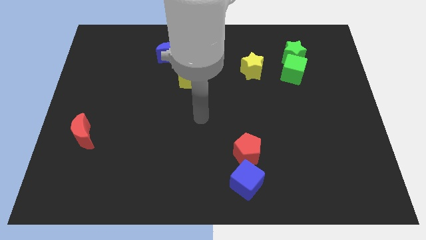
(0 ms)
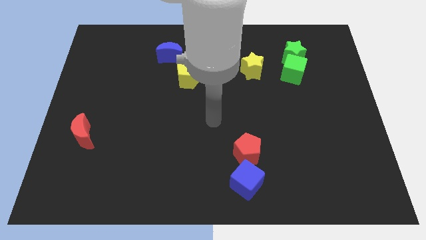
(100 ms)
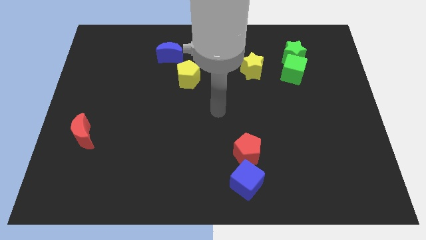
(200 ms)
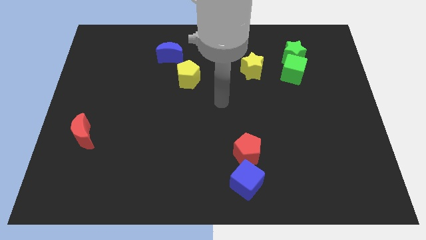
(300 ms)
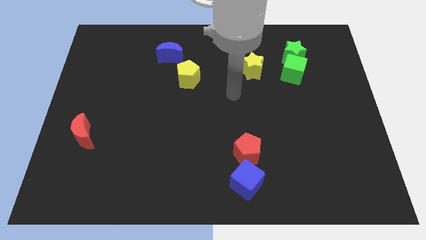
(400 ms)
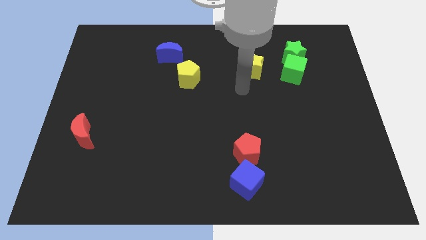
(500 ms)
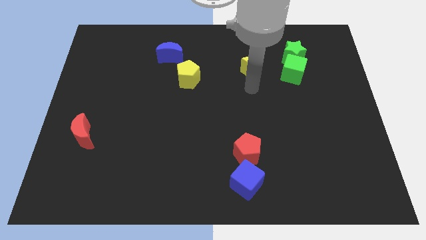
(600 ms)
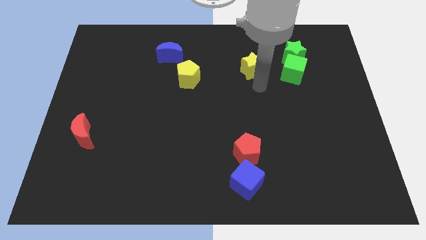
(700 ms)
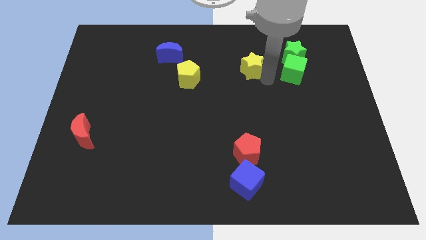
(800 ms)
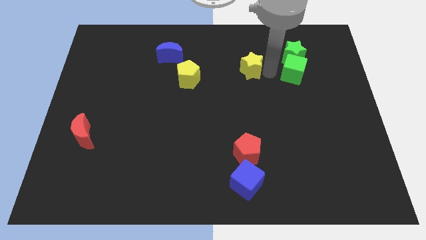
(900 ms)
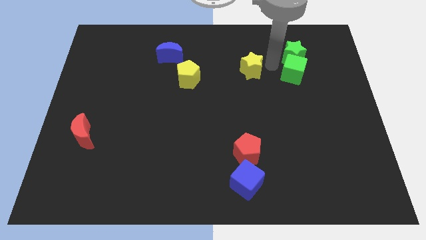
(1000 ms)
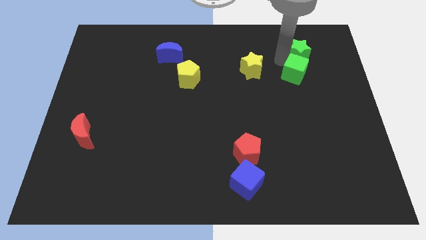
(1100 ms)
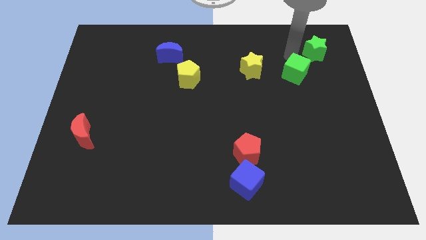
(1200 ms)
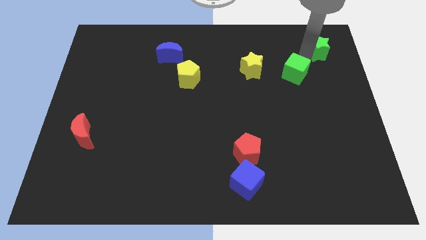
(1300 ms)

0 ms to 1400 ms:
separate the green cube from the green star

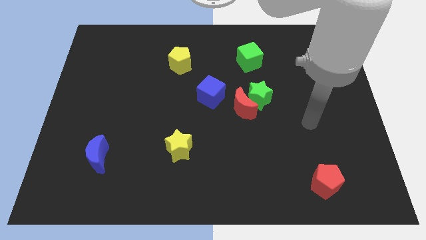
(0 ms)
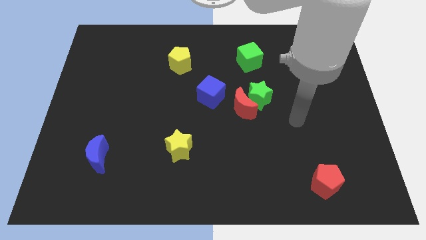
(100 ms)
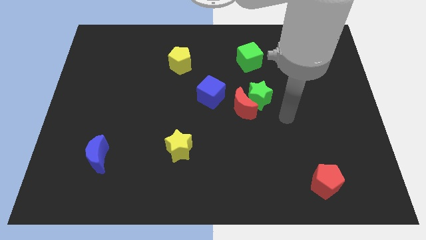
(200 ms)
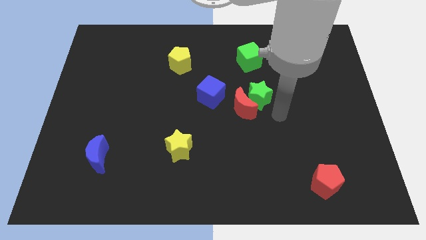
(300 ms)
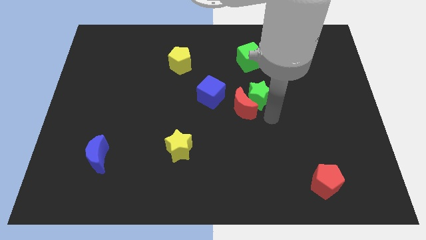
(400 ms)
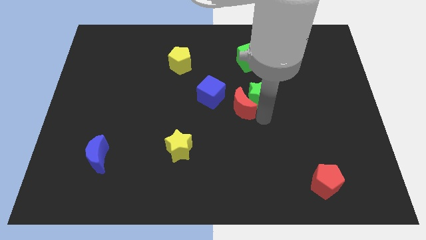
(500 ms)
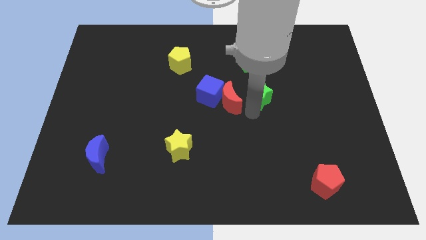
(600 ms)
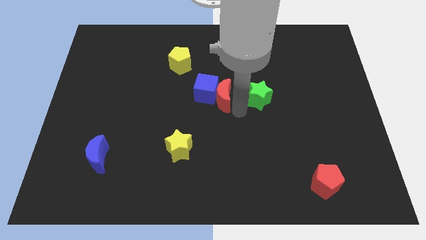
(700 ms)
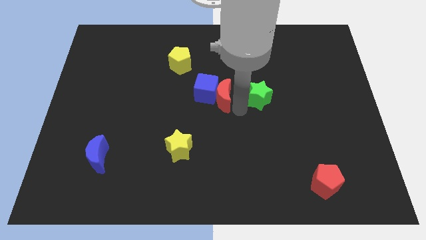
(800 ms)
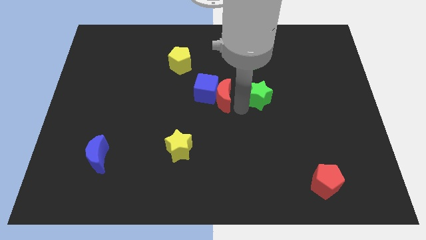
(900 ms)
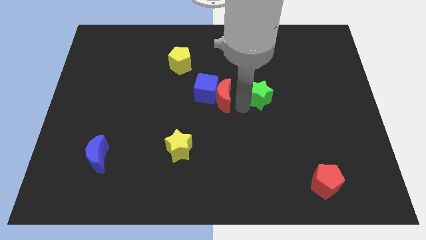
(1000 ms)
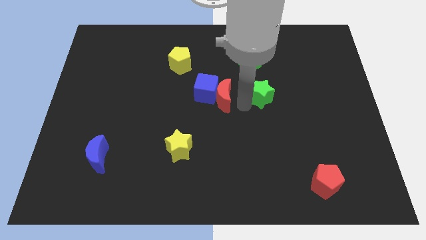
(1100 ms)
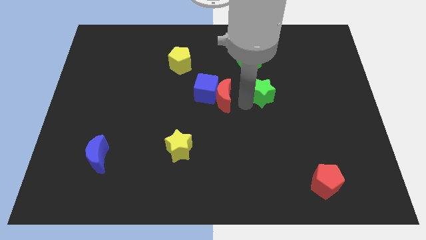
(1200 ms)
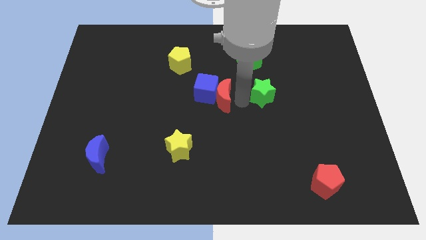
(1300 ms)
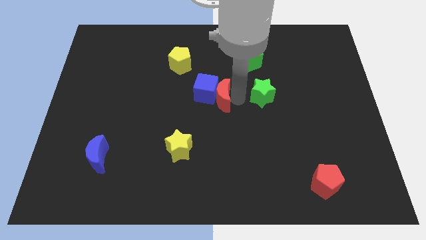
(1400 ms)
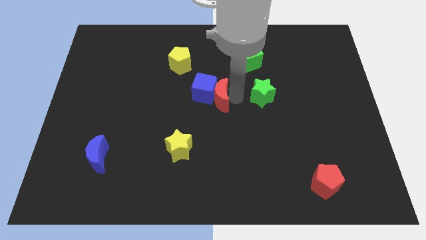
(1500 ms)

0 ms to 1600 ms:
separate the green star from the red moon

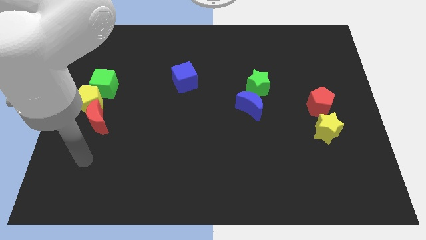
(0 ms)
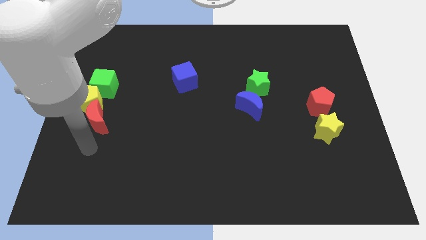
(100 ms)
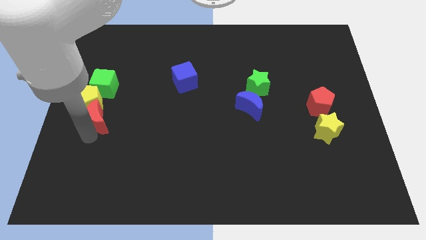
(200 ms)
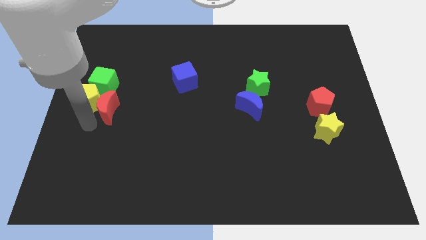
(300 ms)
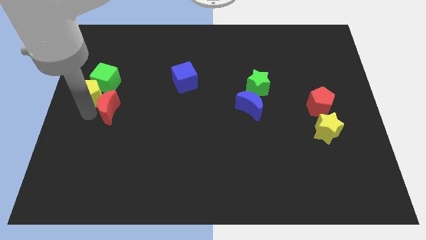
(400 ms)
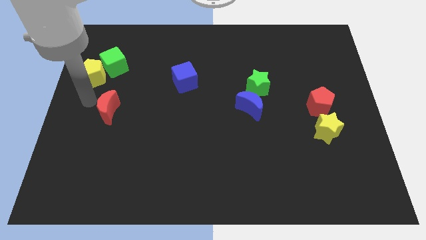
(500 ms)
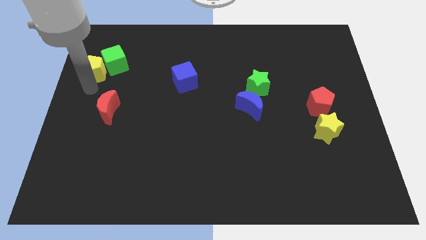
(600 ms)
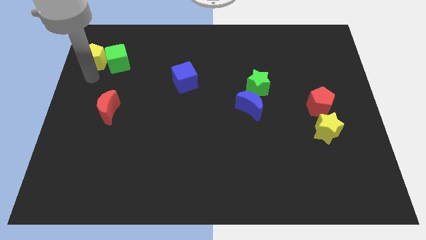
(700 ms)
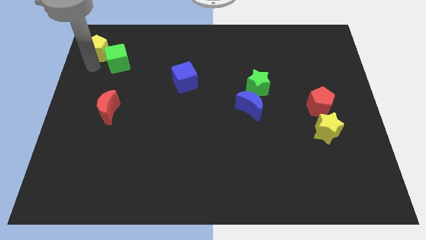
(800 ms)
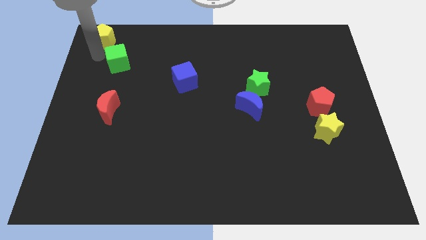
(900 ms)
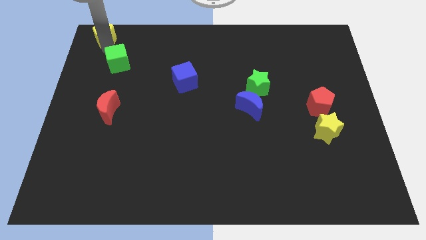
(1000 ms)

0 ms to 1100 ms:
separate the green cube from the yellow pentagon

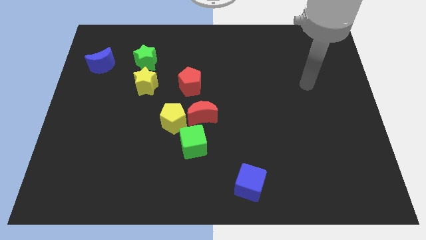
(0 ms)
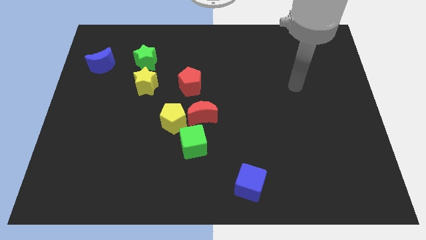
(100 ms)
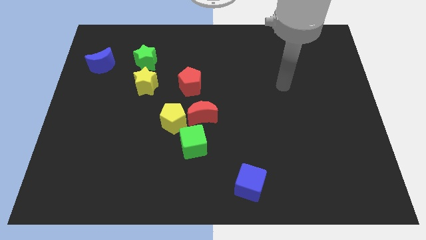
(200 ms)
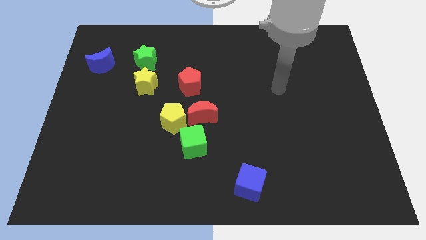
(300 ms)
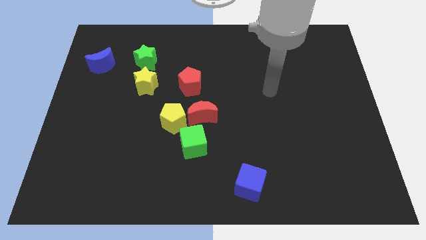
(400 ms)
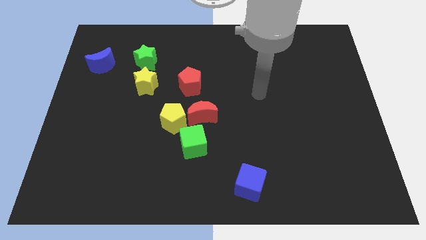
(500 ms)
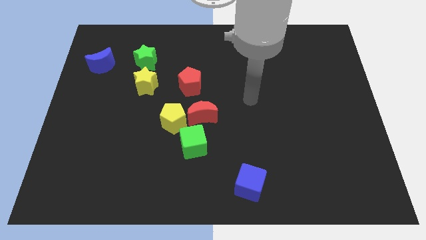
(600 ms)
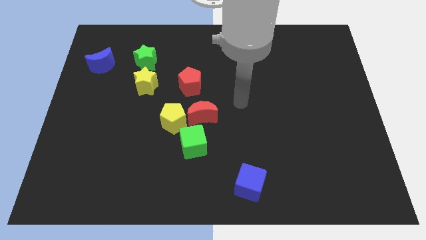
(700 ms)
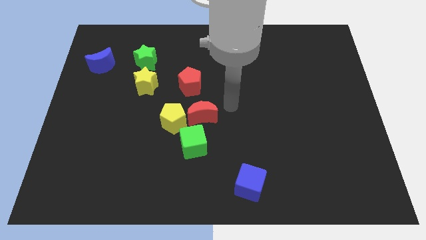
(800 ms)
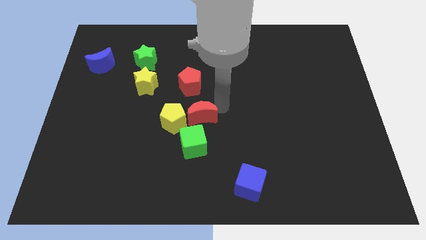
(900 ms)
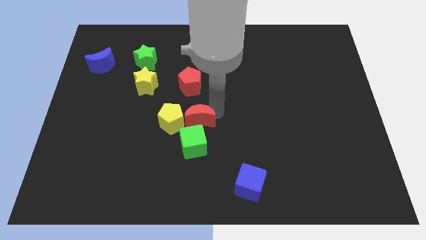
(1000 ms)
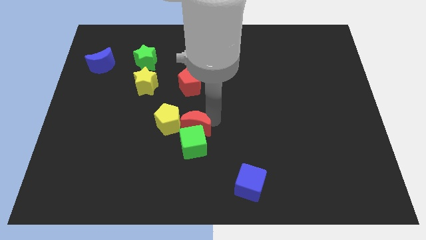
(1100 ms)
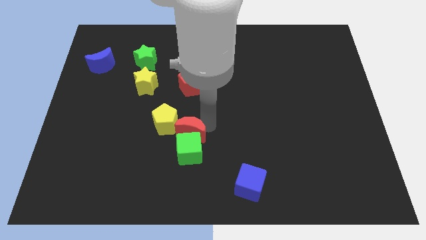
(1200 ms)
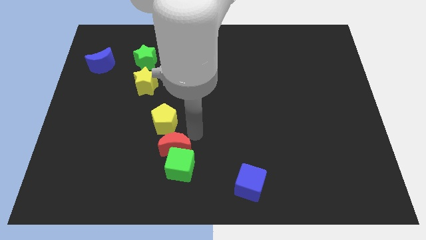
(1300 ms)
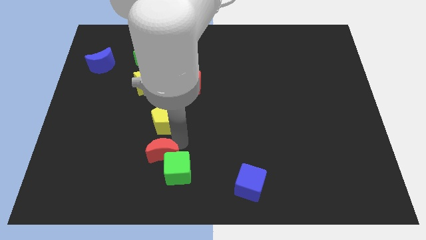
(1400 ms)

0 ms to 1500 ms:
move the yellow pentagon away from the red moon and green cube

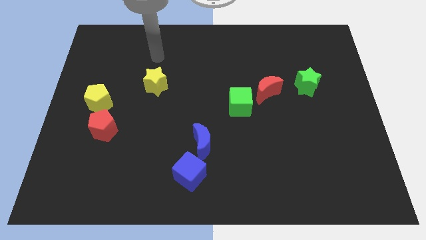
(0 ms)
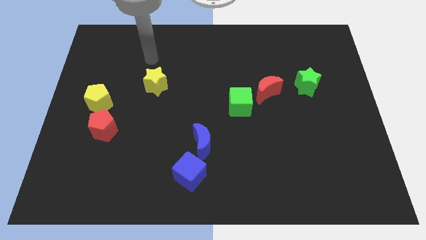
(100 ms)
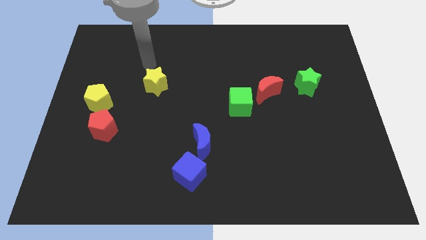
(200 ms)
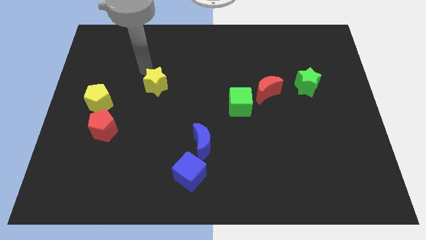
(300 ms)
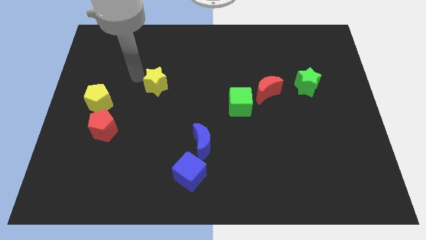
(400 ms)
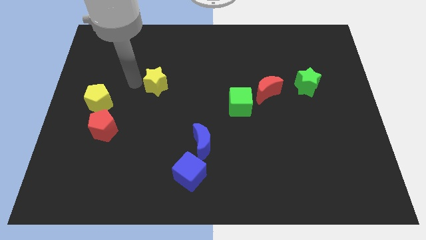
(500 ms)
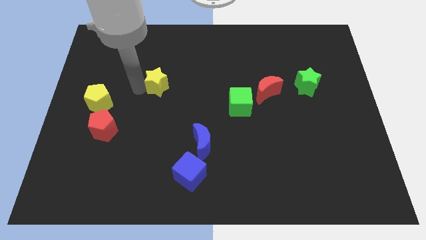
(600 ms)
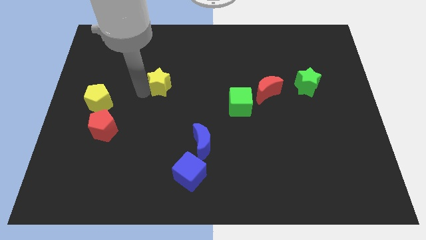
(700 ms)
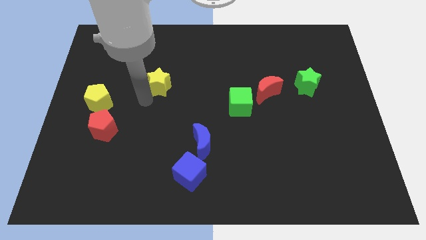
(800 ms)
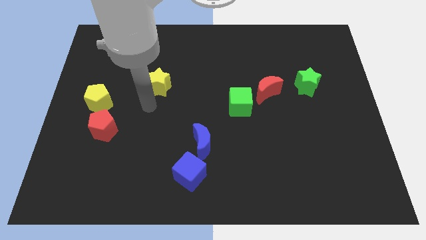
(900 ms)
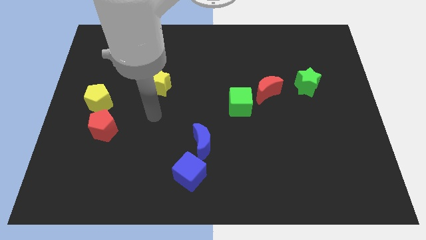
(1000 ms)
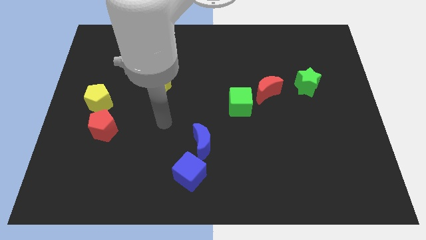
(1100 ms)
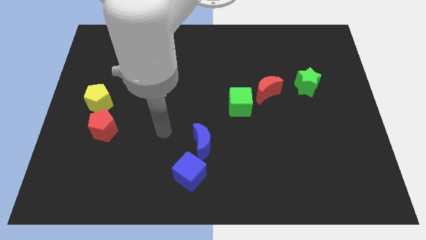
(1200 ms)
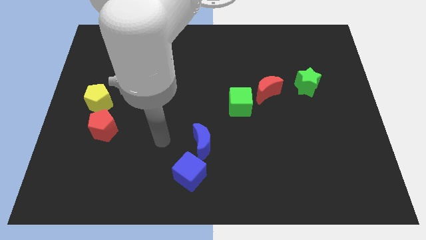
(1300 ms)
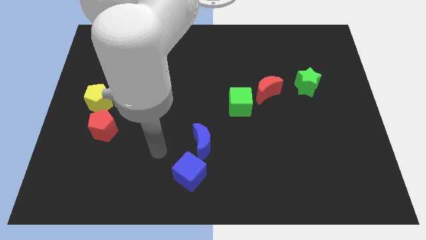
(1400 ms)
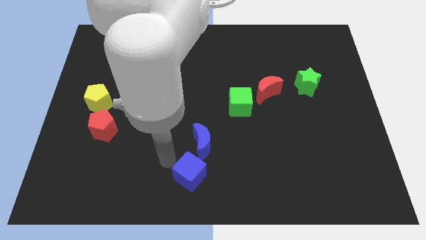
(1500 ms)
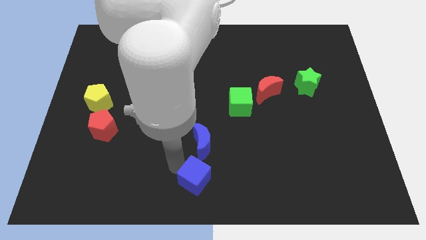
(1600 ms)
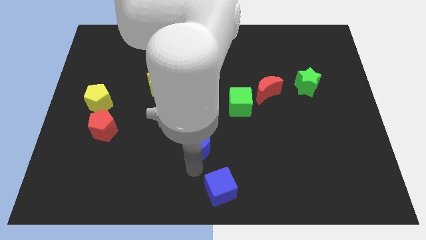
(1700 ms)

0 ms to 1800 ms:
separate the blue moon from the blue cube

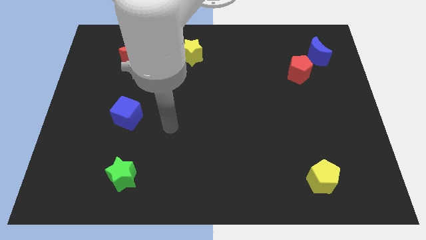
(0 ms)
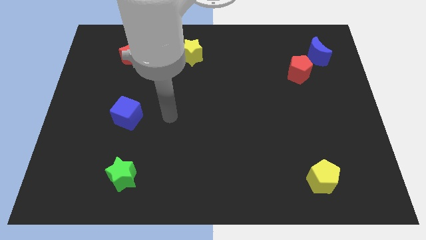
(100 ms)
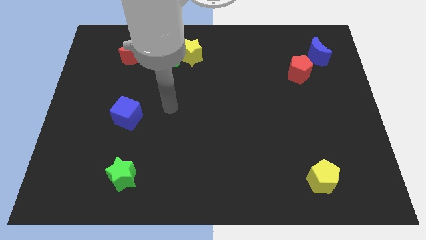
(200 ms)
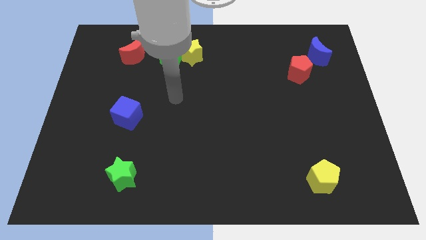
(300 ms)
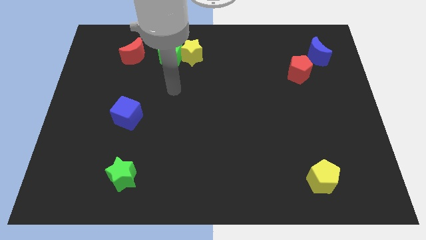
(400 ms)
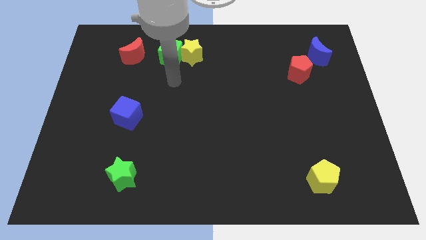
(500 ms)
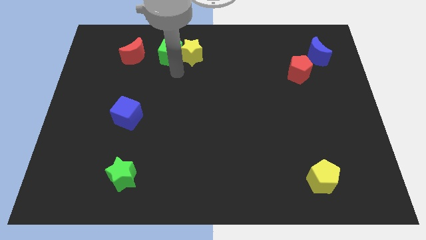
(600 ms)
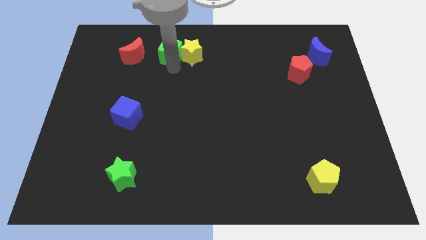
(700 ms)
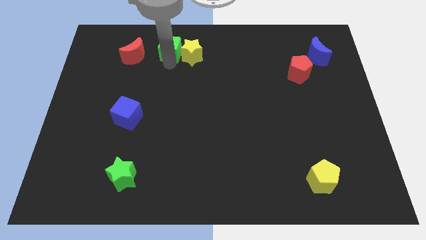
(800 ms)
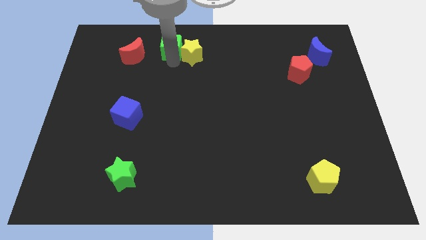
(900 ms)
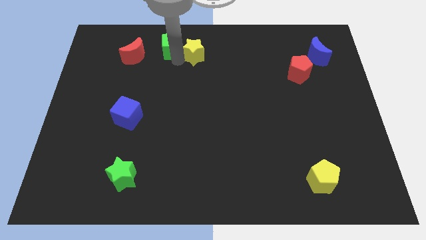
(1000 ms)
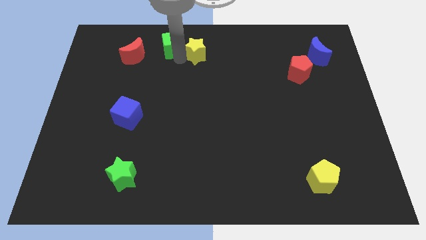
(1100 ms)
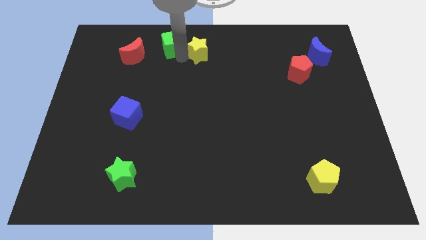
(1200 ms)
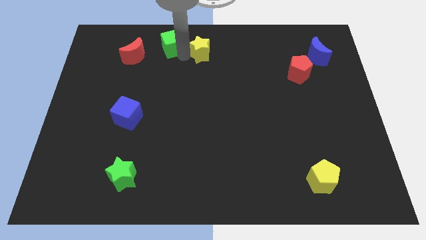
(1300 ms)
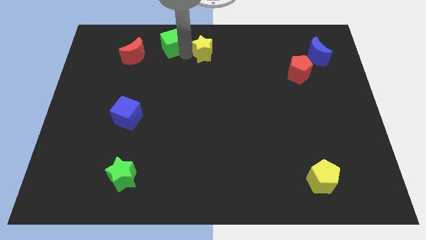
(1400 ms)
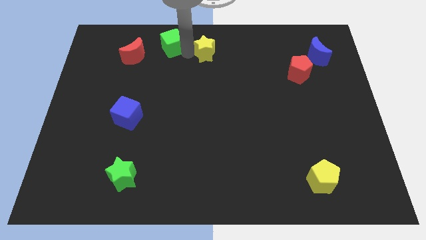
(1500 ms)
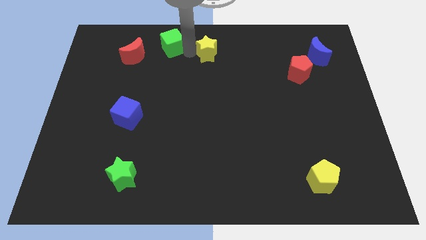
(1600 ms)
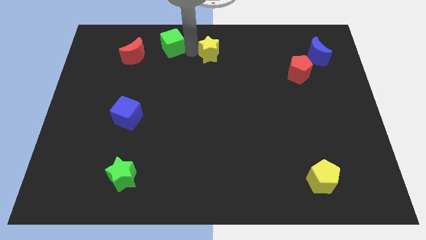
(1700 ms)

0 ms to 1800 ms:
separate the yellow star from the green cube

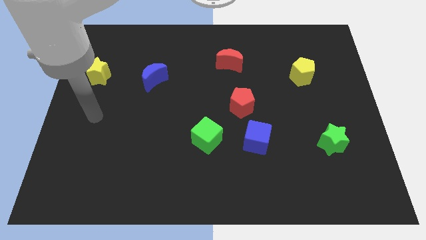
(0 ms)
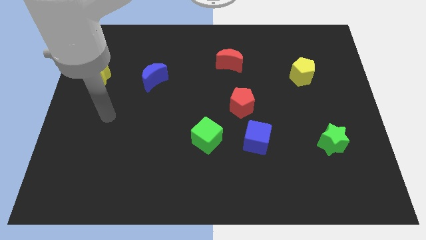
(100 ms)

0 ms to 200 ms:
move the red pentagon away from the blue cube
